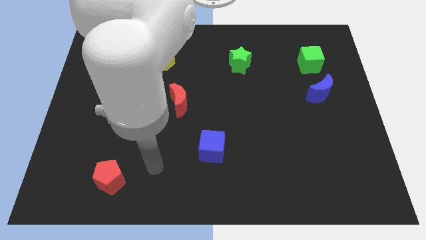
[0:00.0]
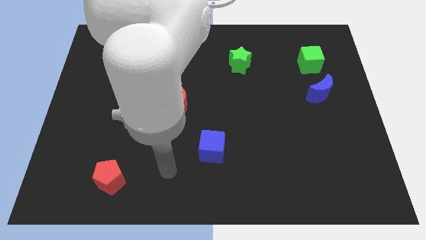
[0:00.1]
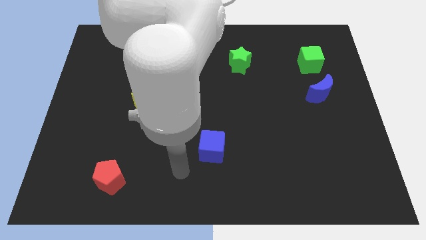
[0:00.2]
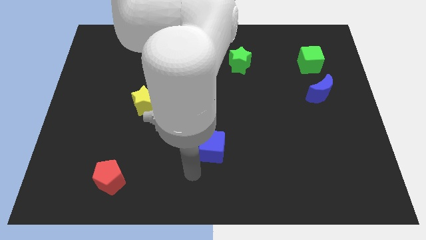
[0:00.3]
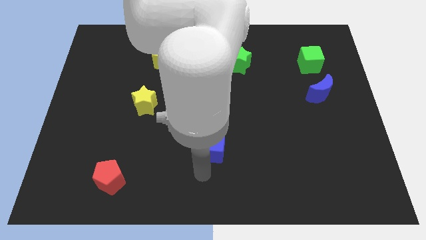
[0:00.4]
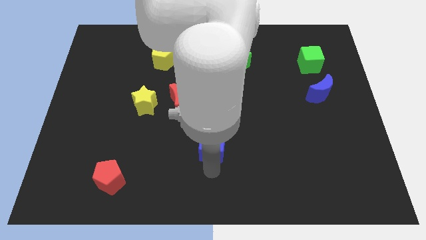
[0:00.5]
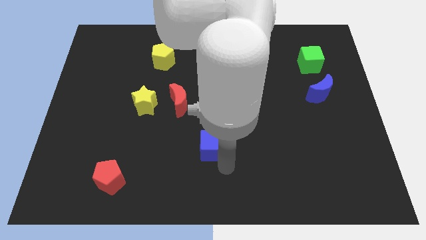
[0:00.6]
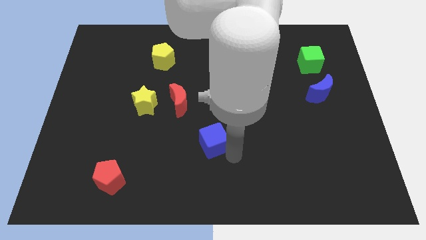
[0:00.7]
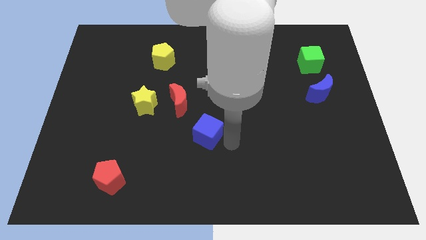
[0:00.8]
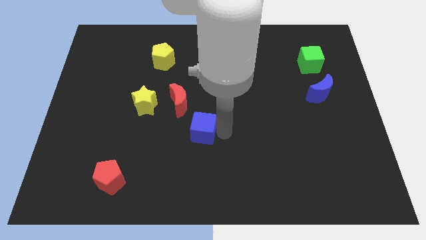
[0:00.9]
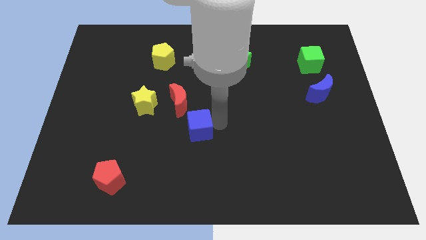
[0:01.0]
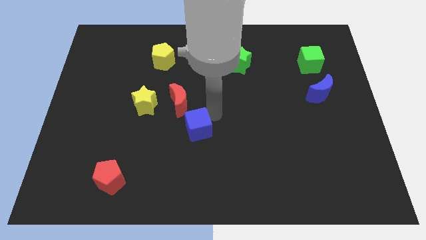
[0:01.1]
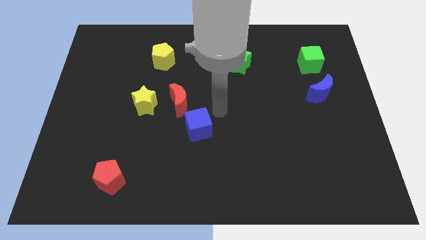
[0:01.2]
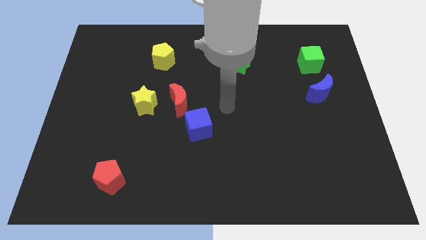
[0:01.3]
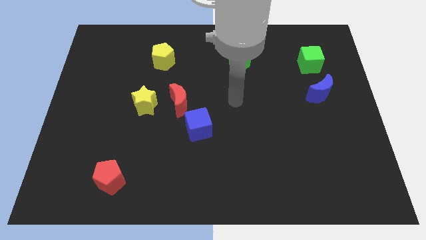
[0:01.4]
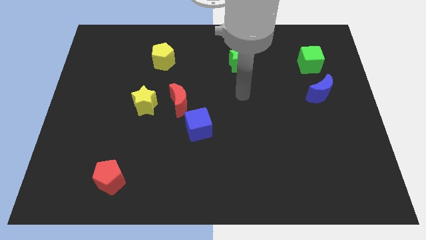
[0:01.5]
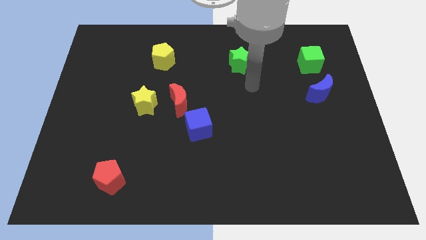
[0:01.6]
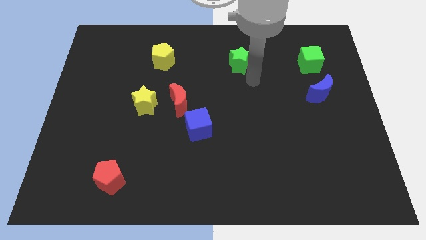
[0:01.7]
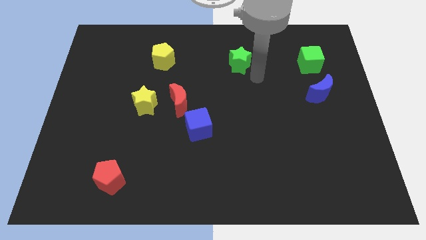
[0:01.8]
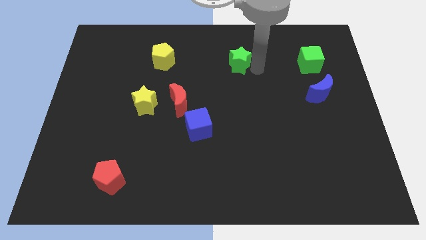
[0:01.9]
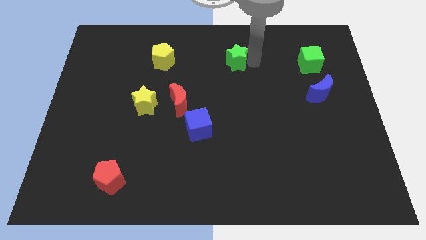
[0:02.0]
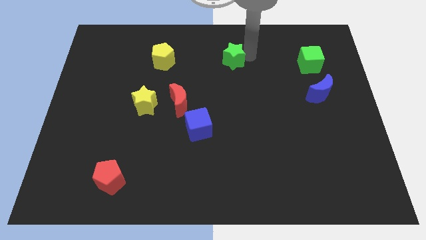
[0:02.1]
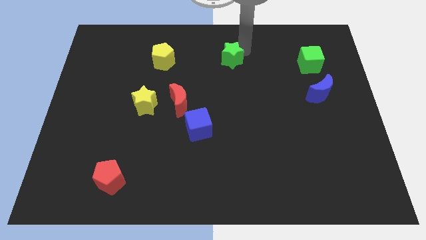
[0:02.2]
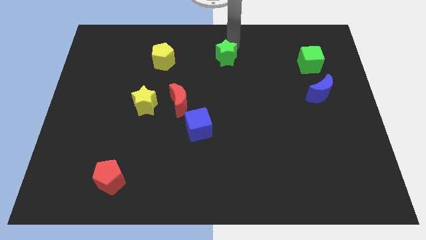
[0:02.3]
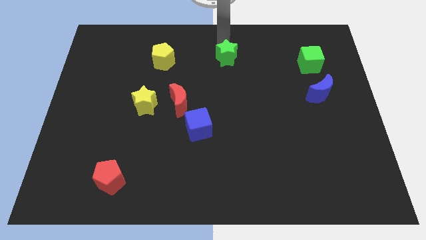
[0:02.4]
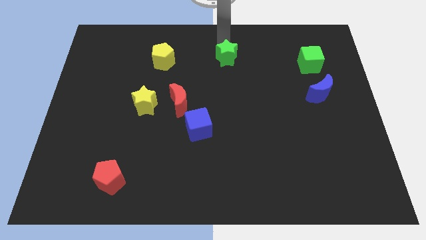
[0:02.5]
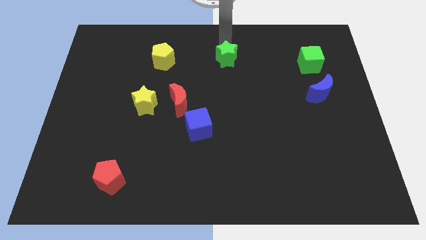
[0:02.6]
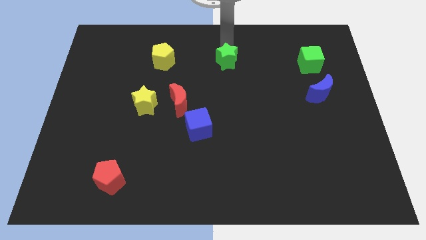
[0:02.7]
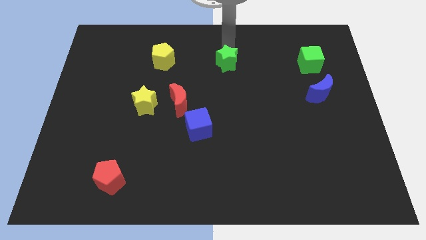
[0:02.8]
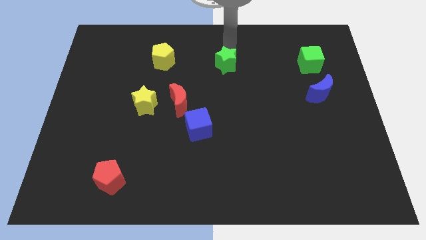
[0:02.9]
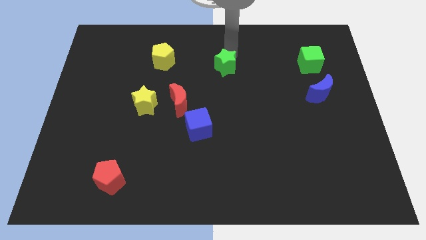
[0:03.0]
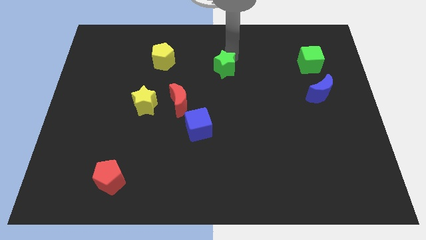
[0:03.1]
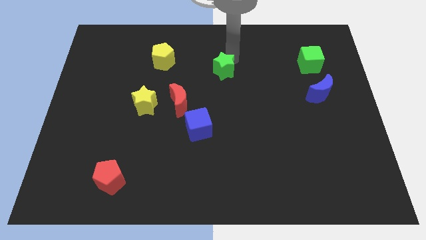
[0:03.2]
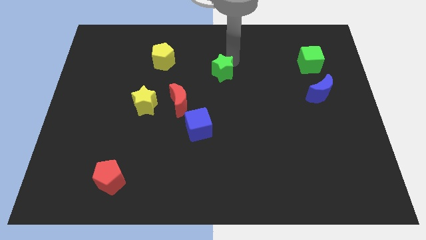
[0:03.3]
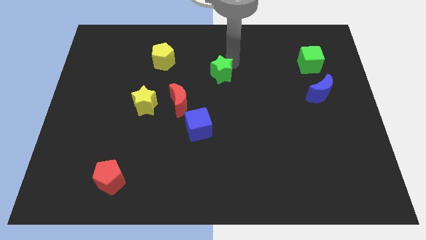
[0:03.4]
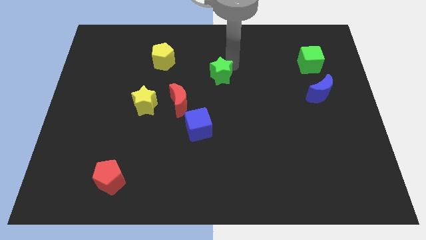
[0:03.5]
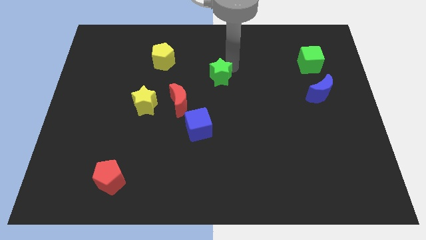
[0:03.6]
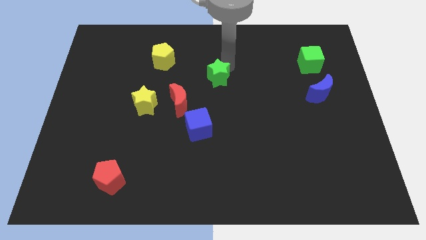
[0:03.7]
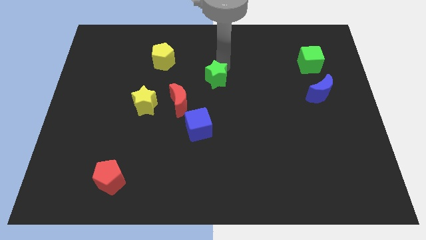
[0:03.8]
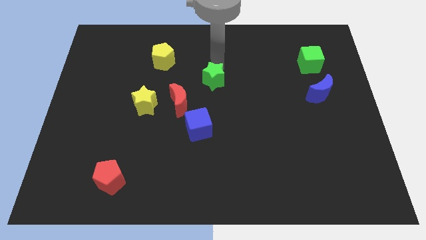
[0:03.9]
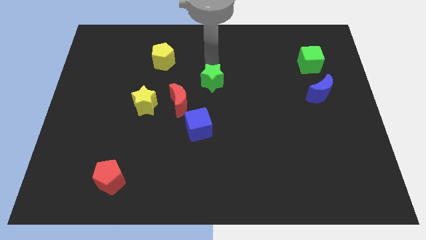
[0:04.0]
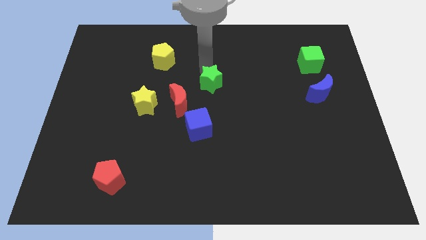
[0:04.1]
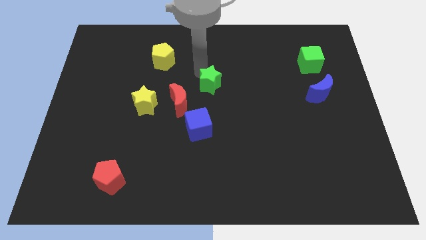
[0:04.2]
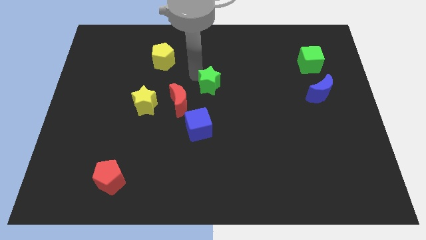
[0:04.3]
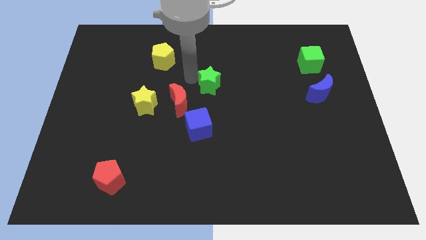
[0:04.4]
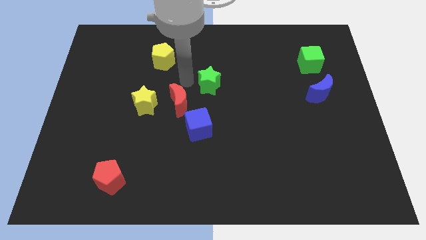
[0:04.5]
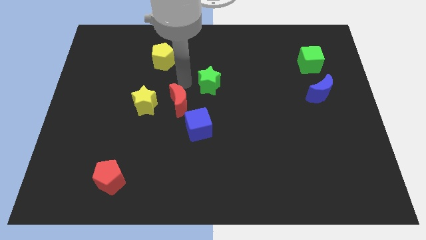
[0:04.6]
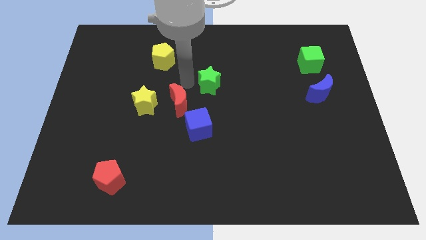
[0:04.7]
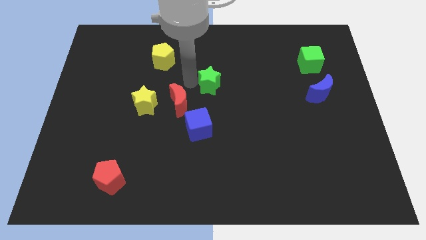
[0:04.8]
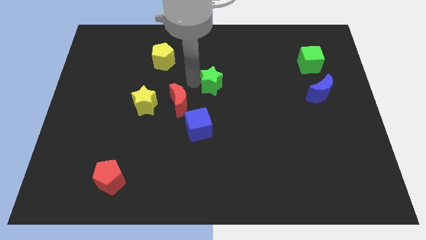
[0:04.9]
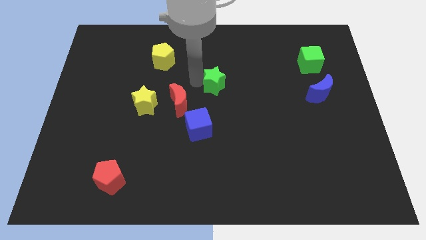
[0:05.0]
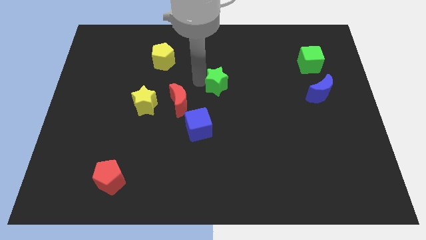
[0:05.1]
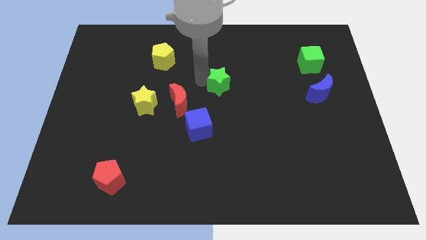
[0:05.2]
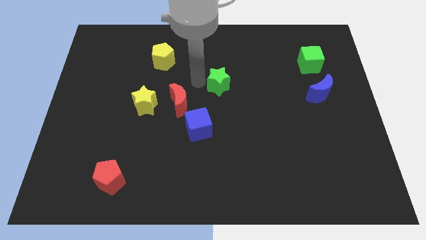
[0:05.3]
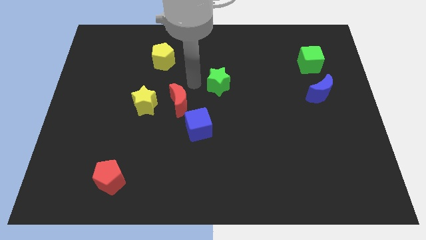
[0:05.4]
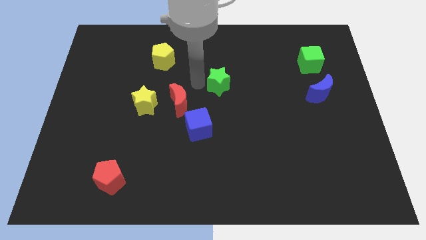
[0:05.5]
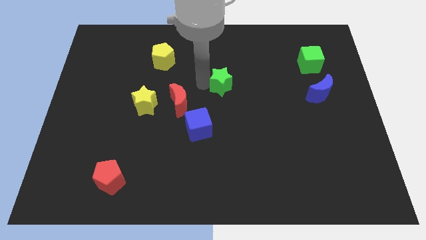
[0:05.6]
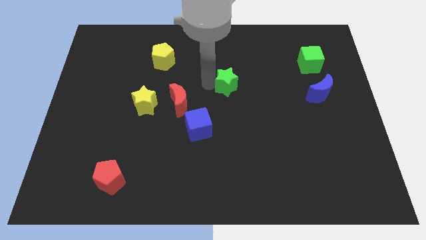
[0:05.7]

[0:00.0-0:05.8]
slightly slide the green star down

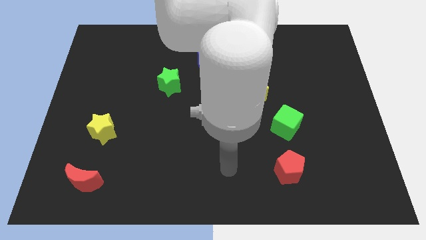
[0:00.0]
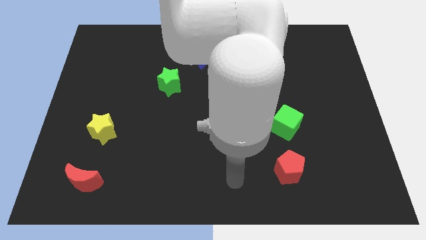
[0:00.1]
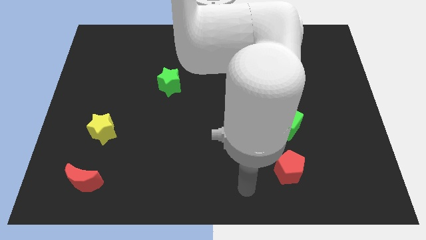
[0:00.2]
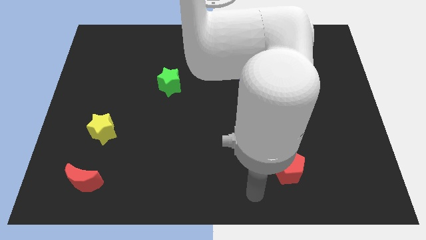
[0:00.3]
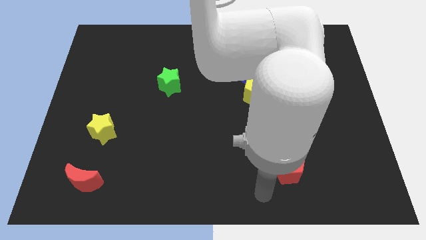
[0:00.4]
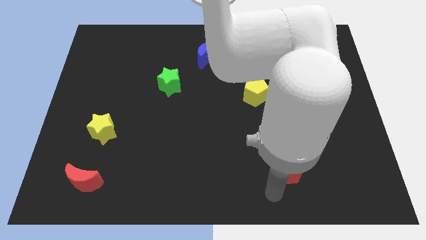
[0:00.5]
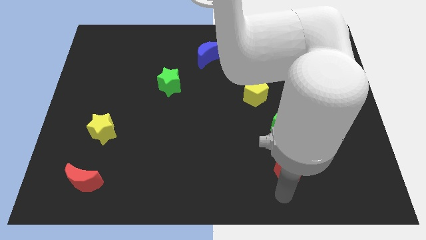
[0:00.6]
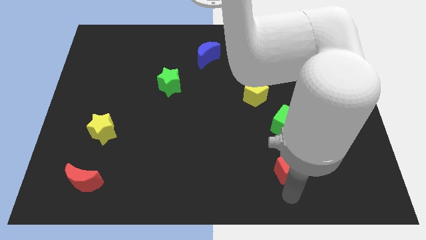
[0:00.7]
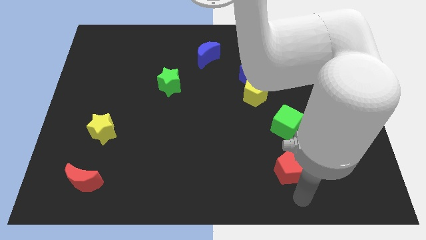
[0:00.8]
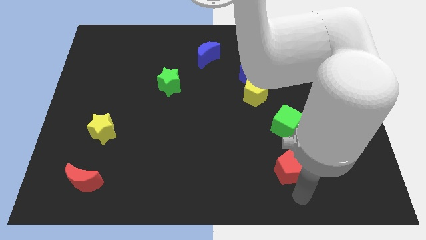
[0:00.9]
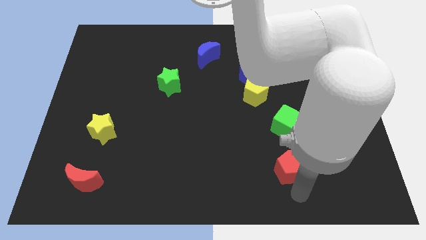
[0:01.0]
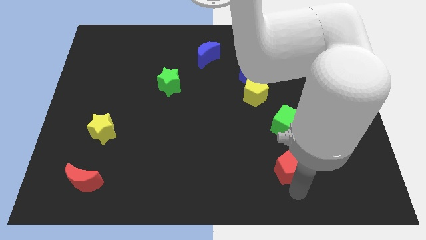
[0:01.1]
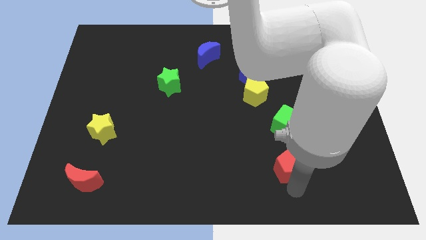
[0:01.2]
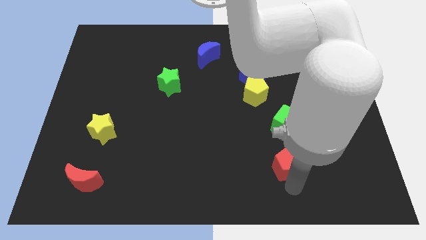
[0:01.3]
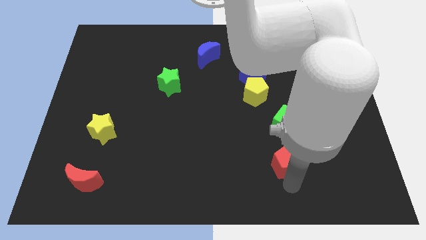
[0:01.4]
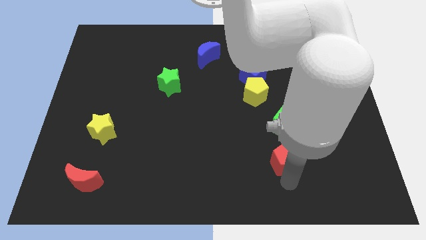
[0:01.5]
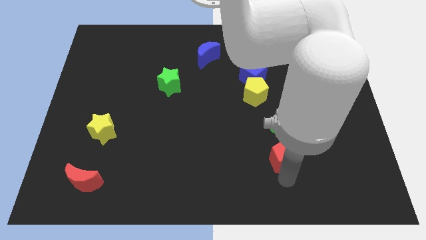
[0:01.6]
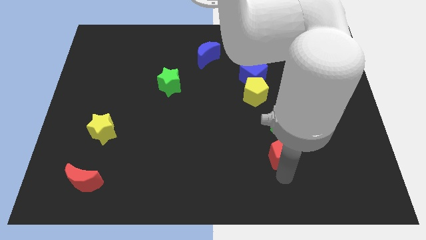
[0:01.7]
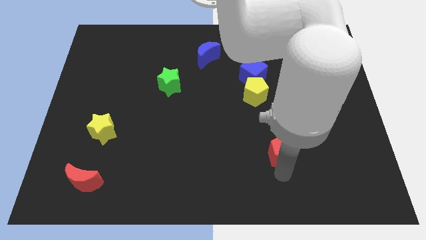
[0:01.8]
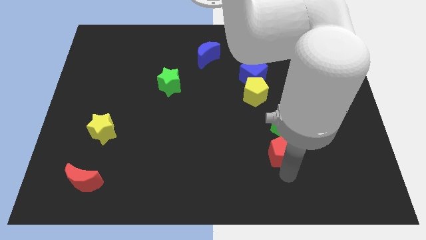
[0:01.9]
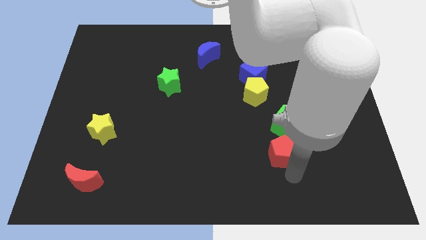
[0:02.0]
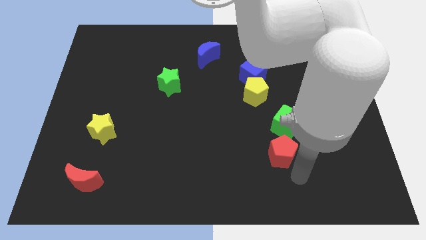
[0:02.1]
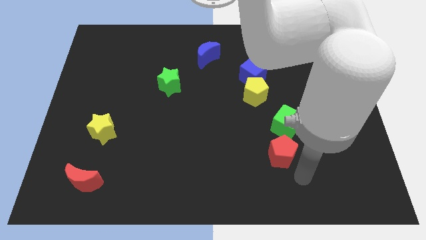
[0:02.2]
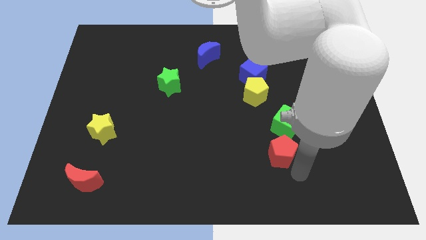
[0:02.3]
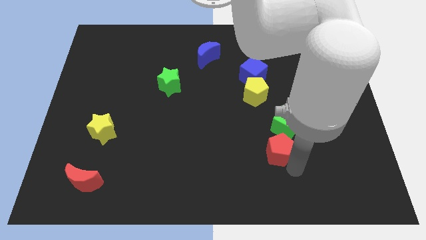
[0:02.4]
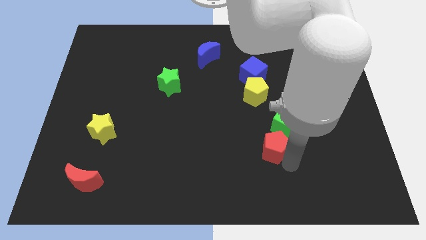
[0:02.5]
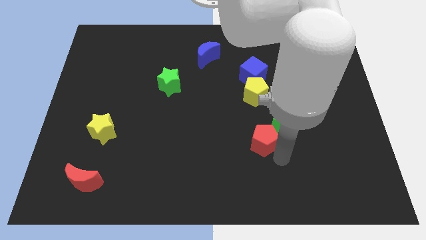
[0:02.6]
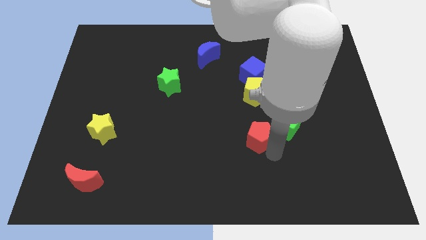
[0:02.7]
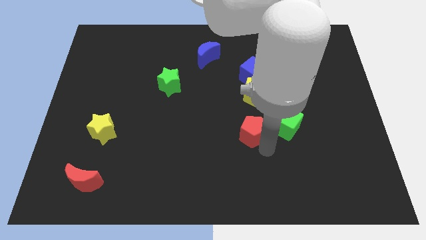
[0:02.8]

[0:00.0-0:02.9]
move the red pentagon upwards a bit
